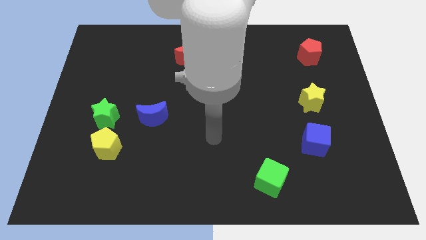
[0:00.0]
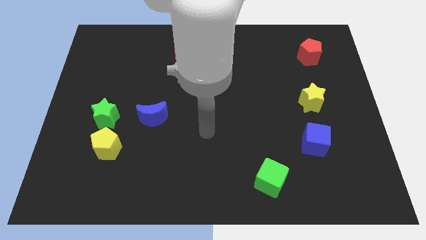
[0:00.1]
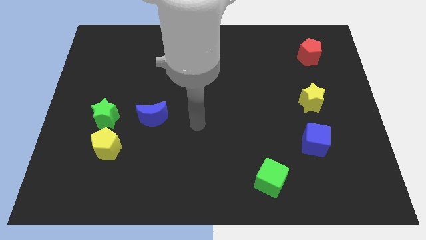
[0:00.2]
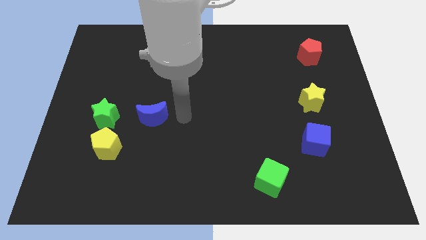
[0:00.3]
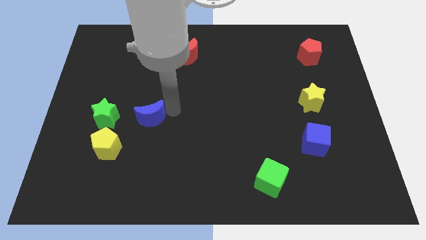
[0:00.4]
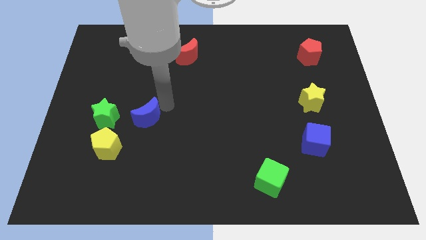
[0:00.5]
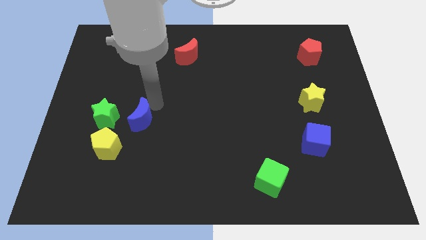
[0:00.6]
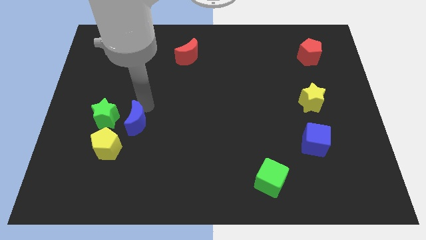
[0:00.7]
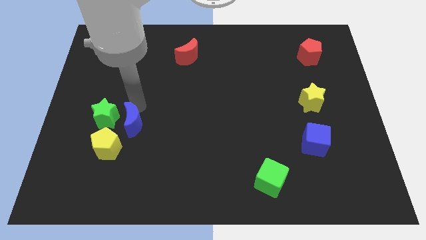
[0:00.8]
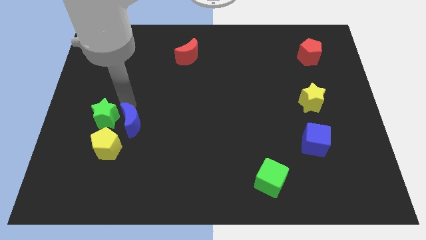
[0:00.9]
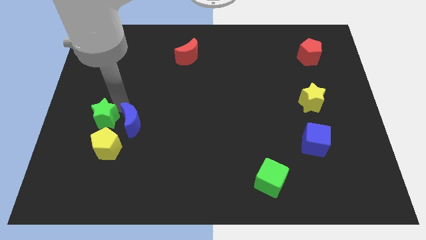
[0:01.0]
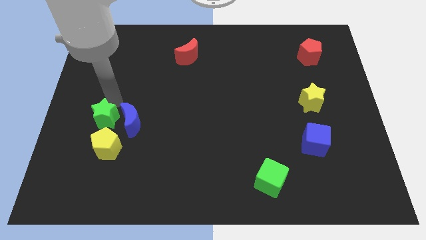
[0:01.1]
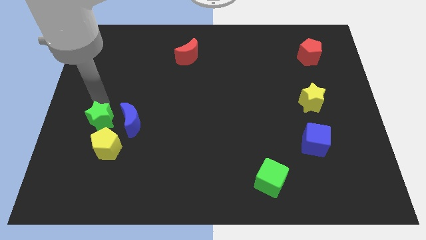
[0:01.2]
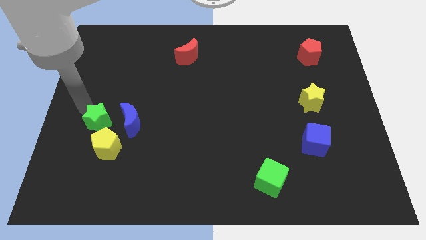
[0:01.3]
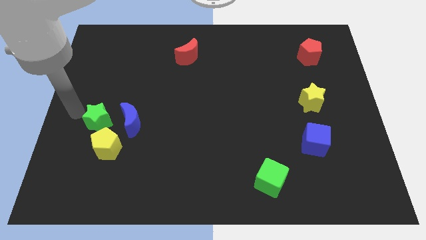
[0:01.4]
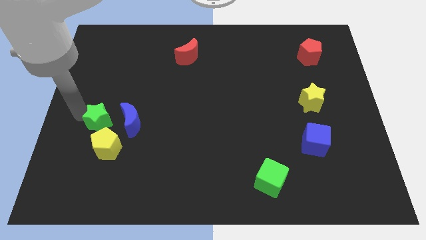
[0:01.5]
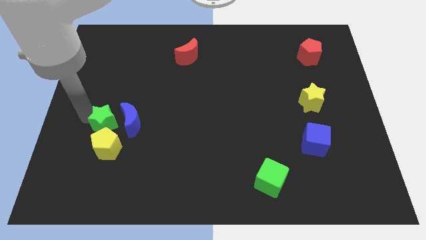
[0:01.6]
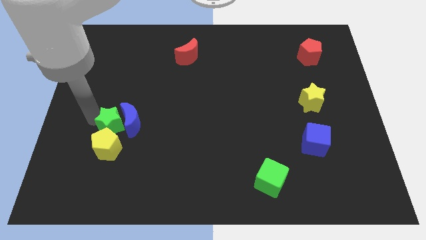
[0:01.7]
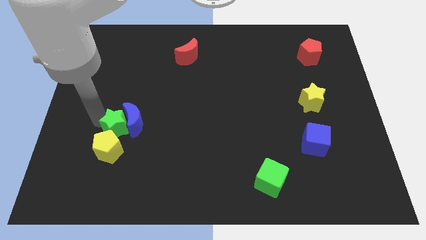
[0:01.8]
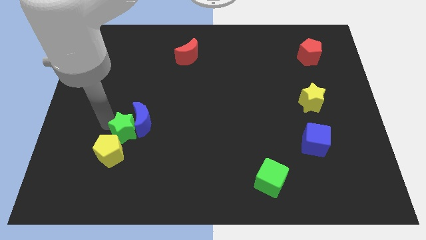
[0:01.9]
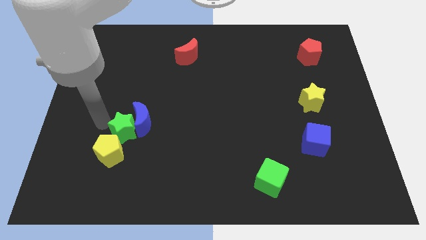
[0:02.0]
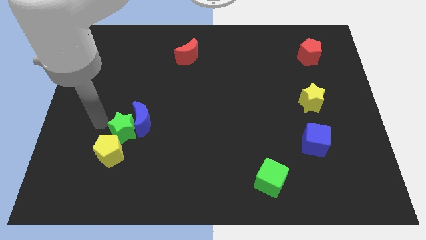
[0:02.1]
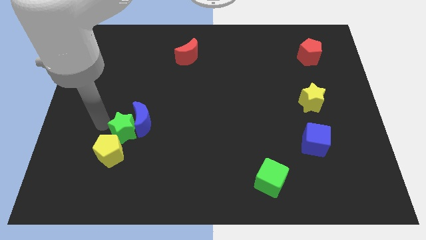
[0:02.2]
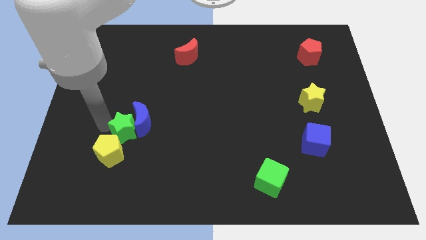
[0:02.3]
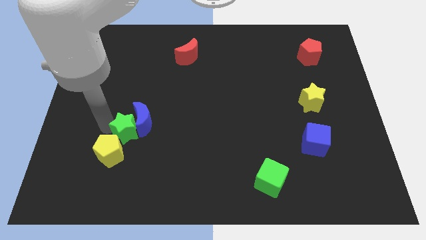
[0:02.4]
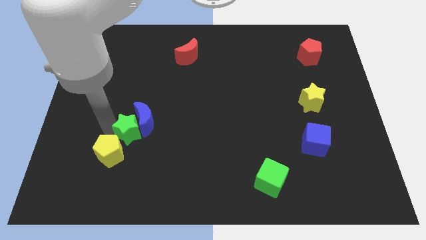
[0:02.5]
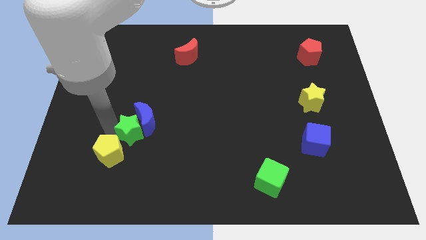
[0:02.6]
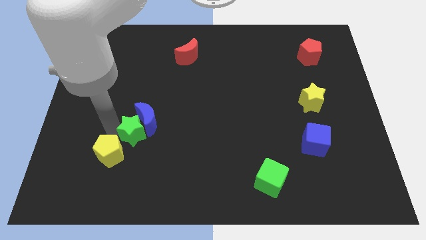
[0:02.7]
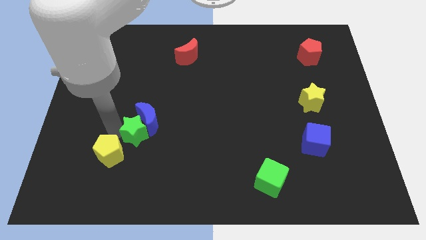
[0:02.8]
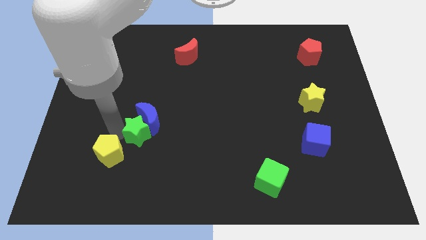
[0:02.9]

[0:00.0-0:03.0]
push the green star to the right a little bit

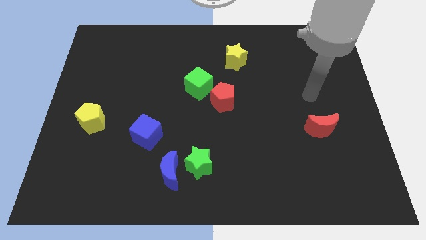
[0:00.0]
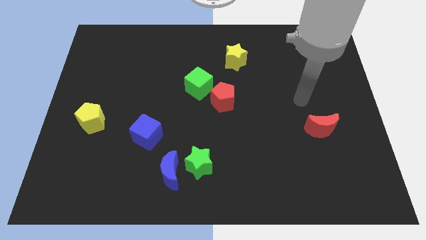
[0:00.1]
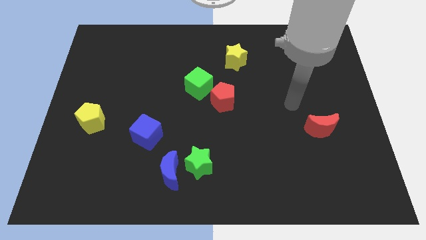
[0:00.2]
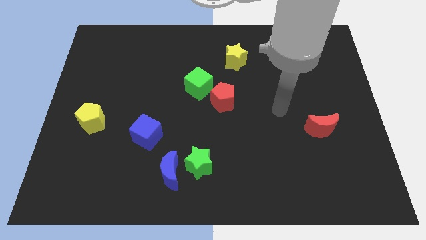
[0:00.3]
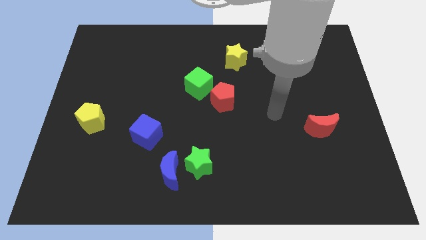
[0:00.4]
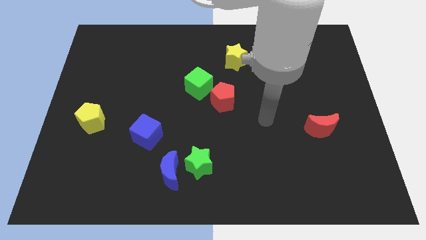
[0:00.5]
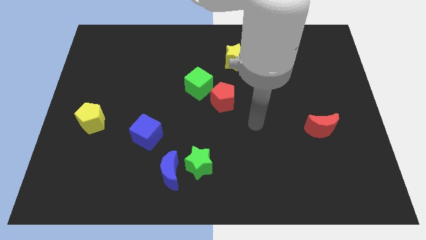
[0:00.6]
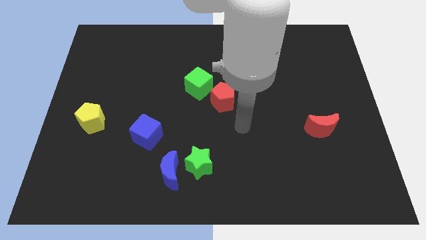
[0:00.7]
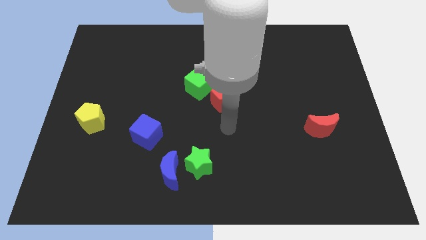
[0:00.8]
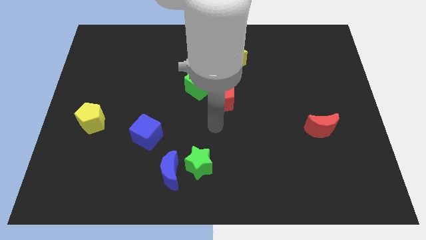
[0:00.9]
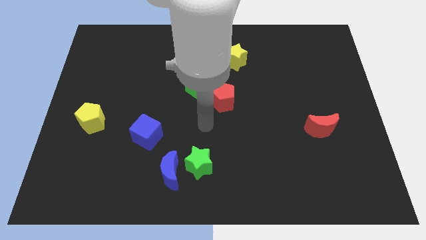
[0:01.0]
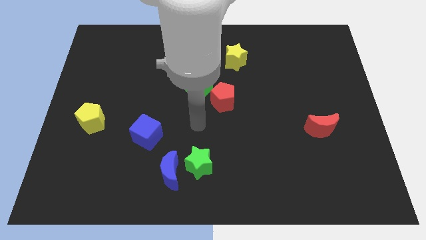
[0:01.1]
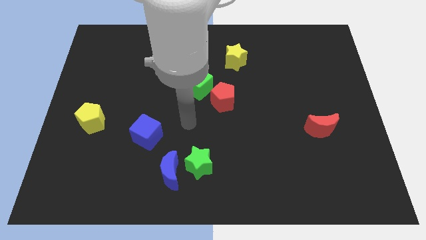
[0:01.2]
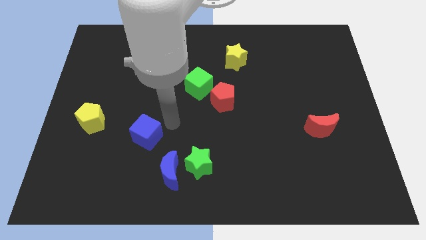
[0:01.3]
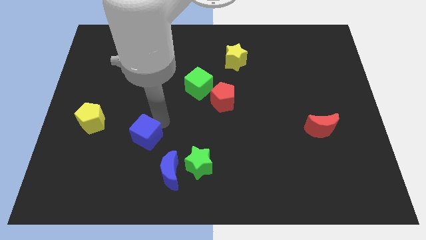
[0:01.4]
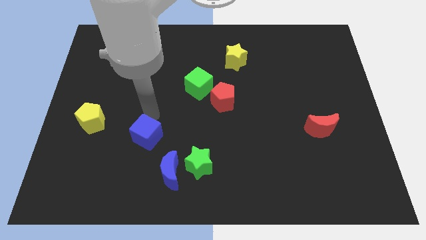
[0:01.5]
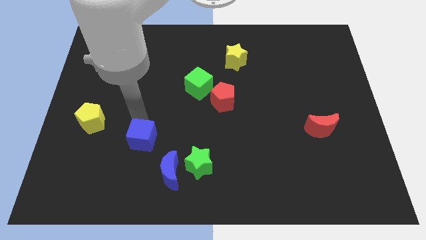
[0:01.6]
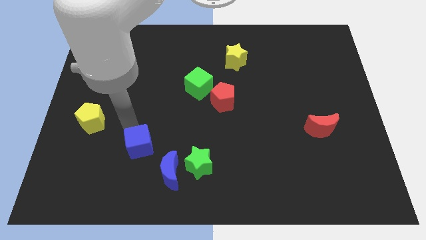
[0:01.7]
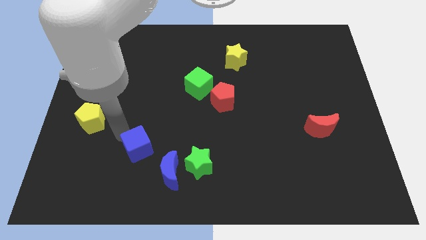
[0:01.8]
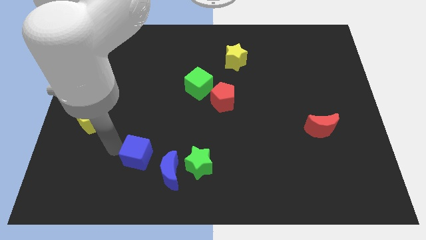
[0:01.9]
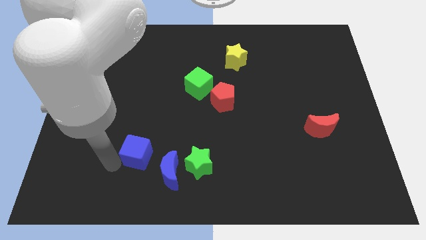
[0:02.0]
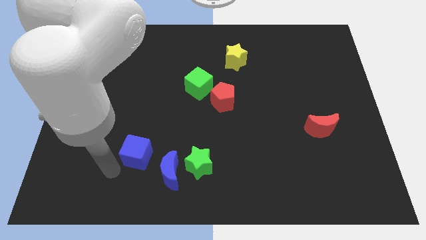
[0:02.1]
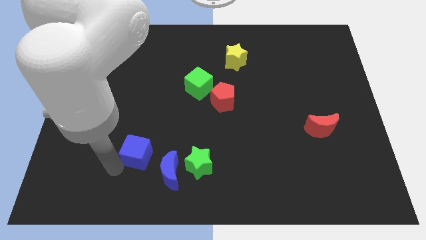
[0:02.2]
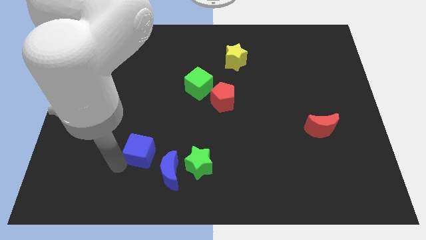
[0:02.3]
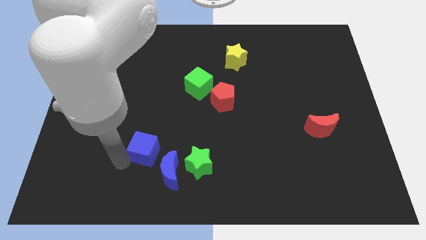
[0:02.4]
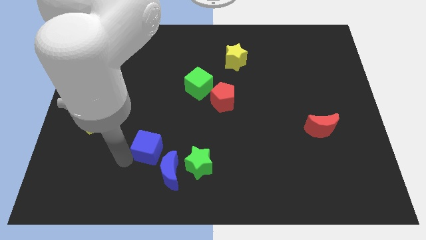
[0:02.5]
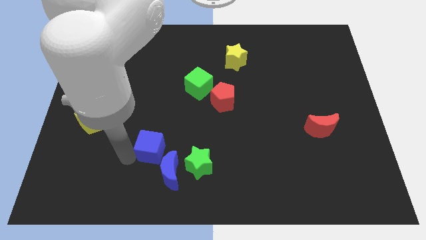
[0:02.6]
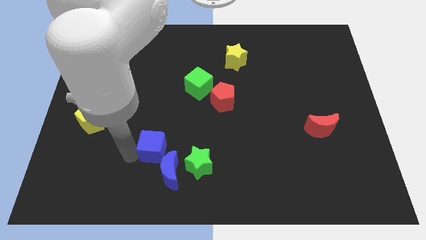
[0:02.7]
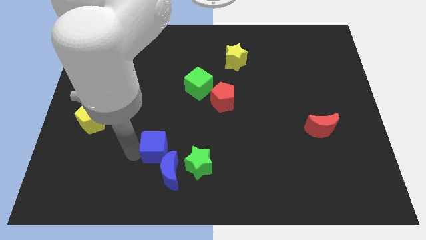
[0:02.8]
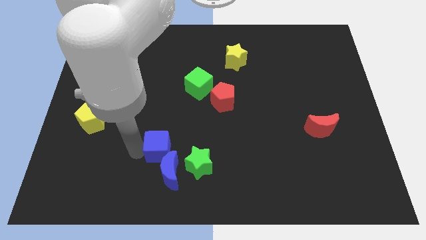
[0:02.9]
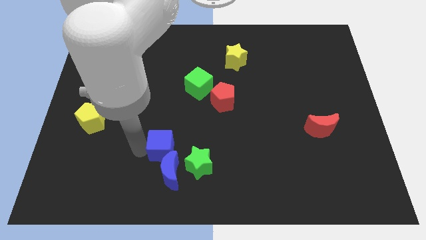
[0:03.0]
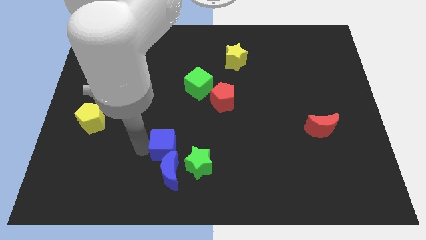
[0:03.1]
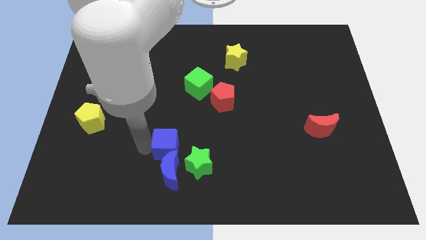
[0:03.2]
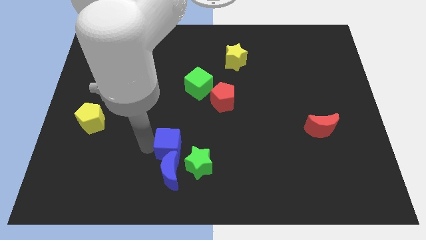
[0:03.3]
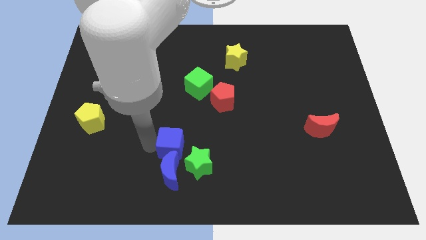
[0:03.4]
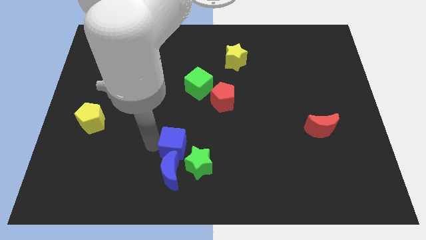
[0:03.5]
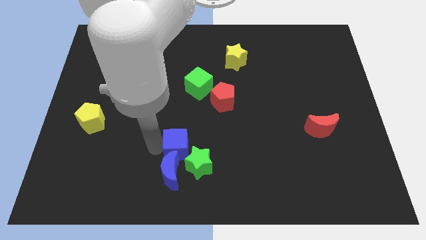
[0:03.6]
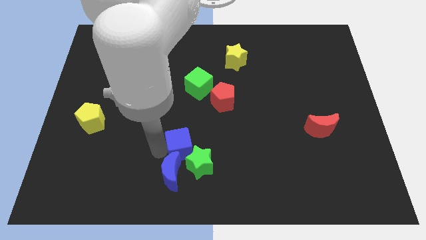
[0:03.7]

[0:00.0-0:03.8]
slightly push the blue cube right

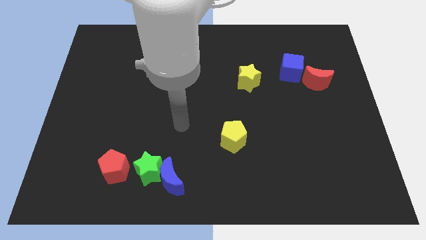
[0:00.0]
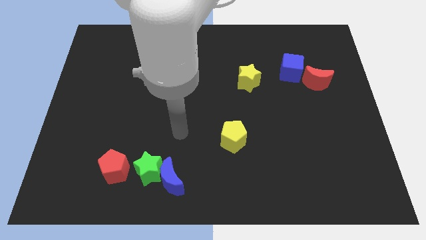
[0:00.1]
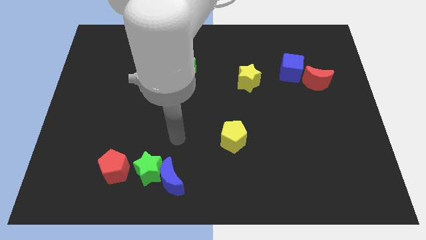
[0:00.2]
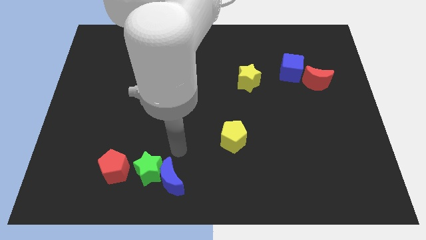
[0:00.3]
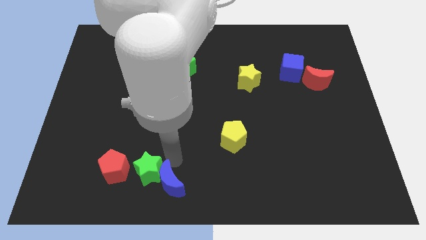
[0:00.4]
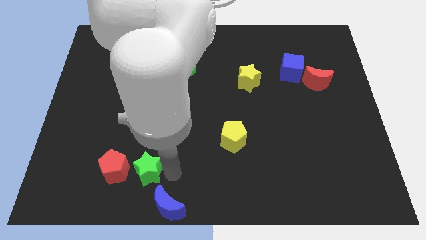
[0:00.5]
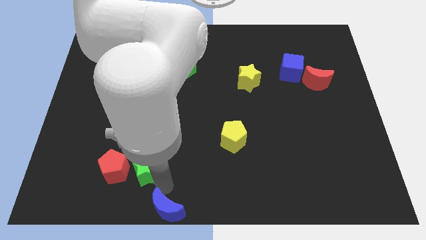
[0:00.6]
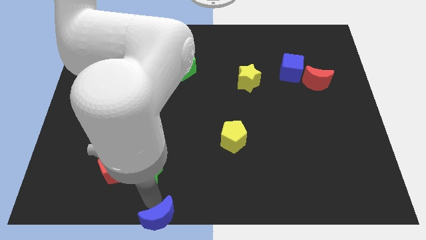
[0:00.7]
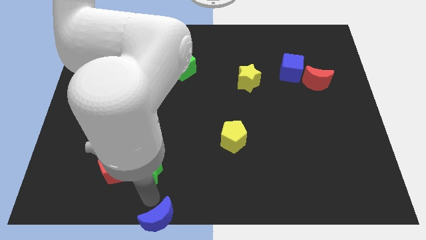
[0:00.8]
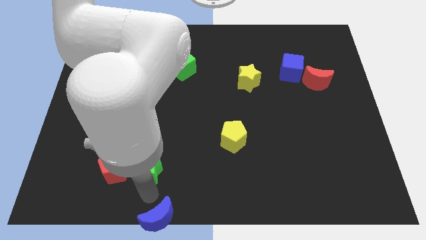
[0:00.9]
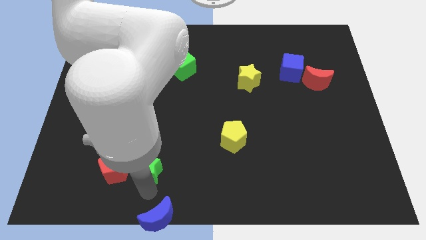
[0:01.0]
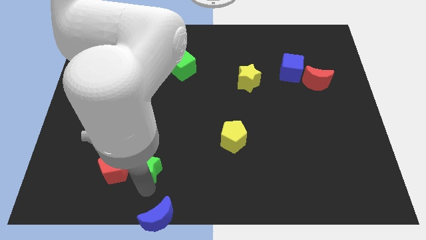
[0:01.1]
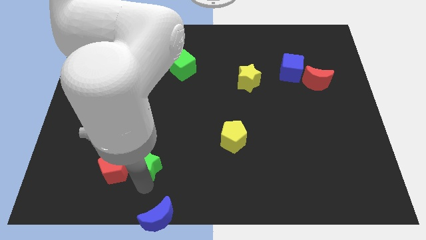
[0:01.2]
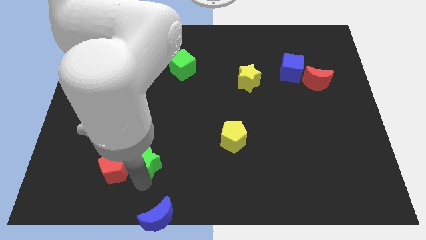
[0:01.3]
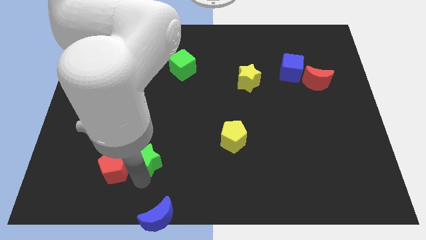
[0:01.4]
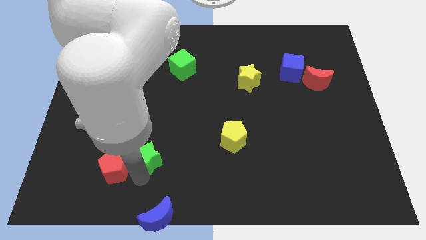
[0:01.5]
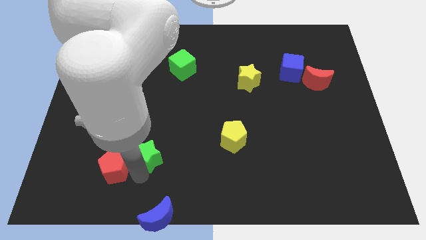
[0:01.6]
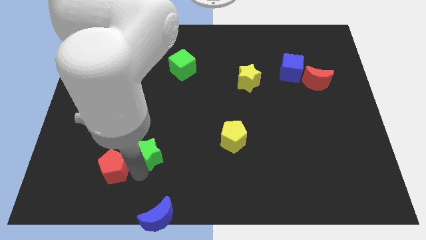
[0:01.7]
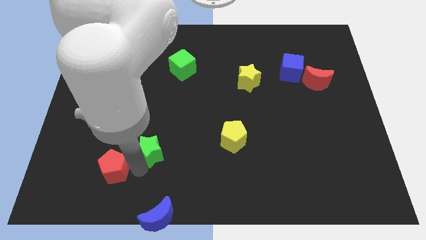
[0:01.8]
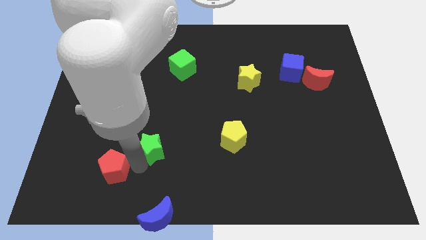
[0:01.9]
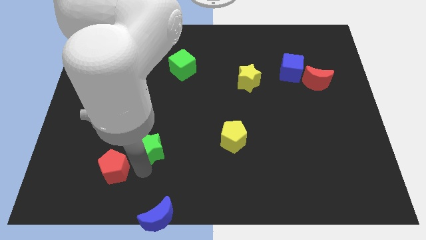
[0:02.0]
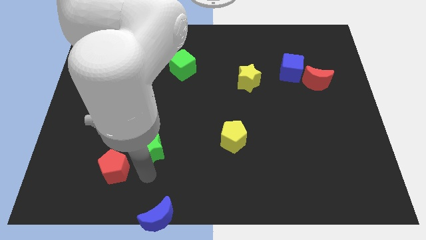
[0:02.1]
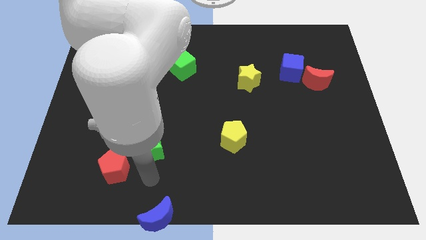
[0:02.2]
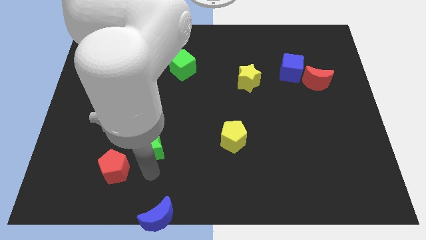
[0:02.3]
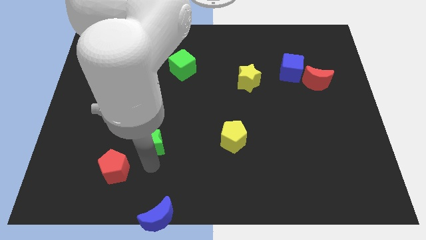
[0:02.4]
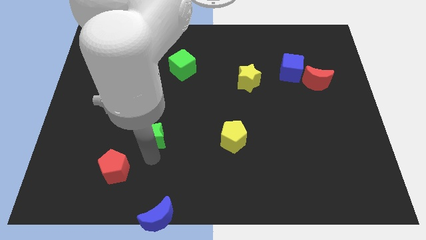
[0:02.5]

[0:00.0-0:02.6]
slightly slide the green star up
